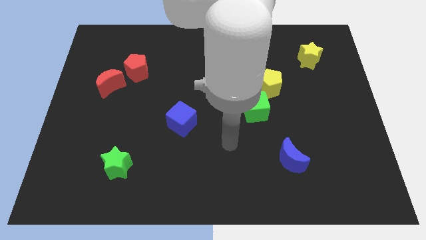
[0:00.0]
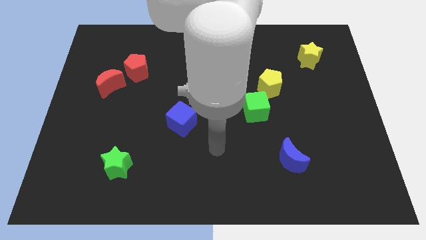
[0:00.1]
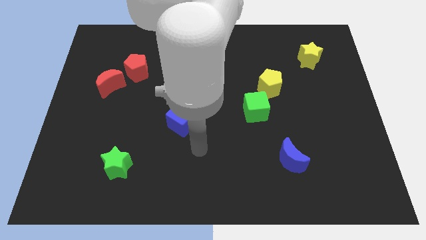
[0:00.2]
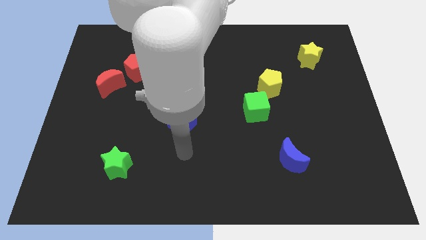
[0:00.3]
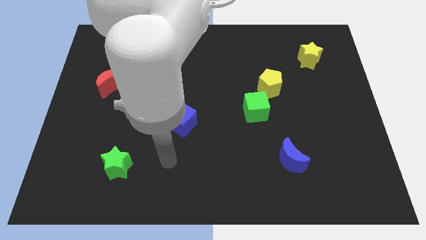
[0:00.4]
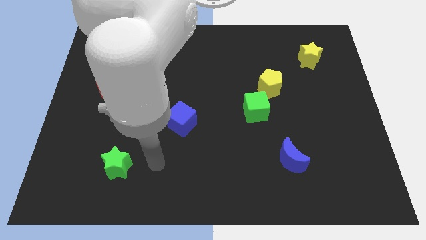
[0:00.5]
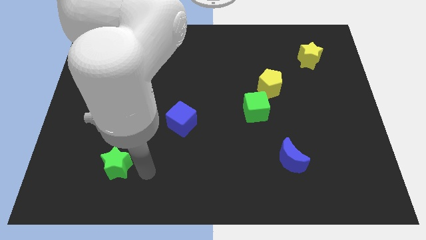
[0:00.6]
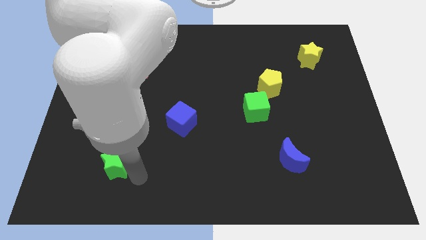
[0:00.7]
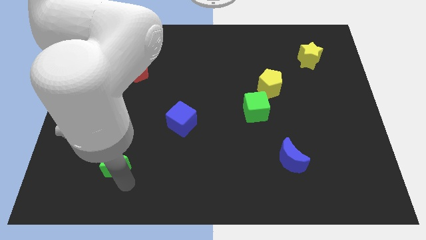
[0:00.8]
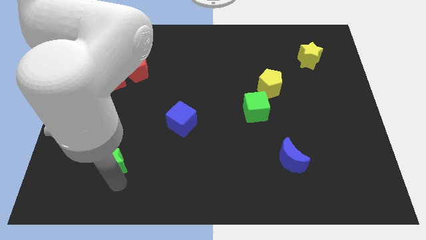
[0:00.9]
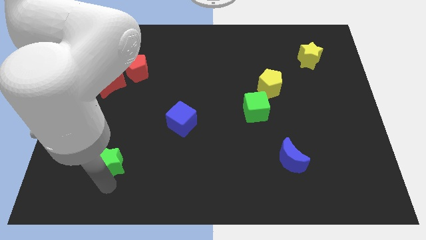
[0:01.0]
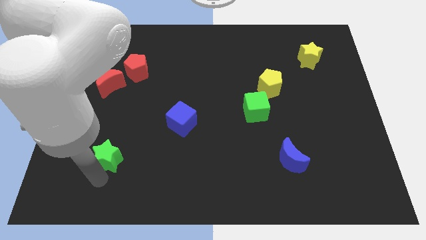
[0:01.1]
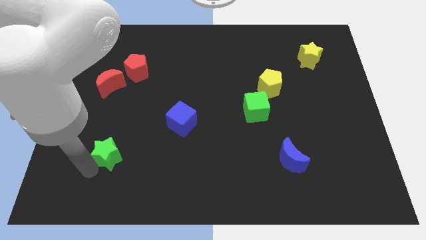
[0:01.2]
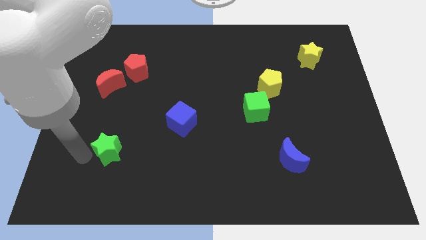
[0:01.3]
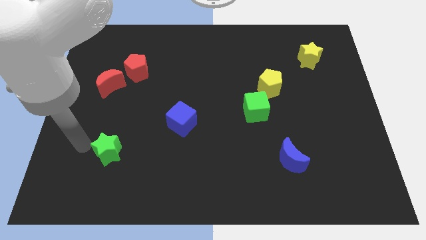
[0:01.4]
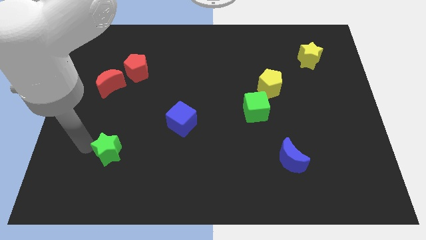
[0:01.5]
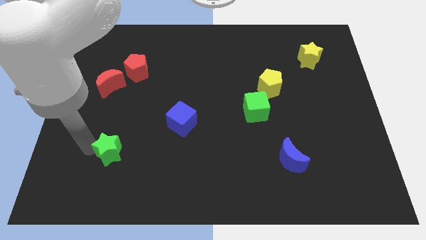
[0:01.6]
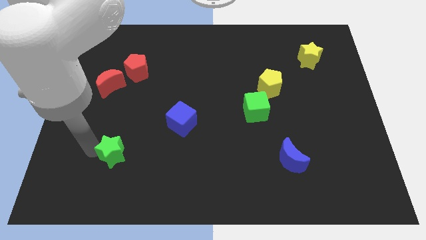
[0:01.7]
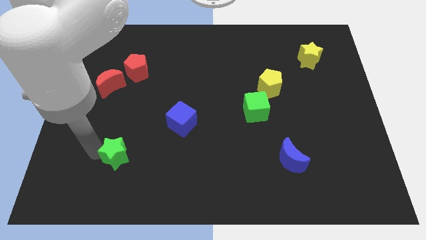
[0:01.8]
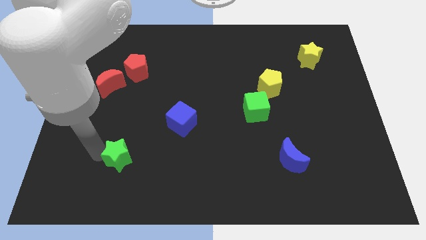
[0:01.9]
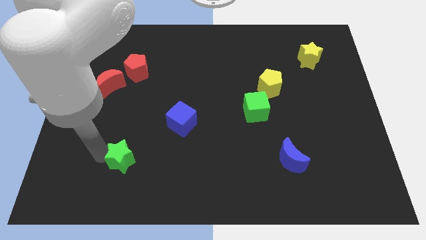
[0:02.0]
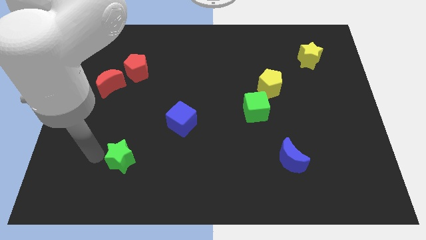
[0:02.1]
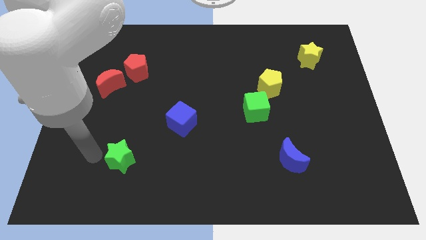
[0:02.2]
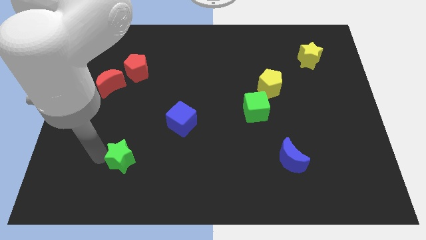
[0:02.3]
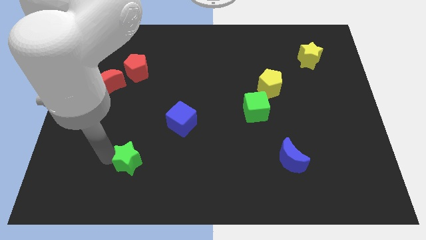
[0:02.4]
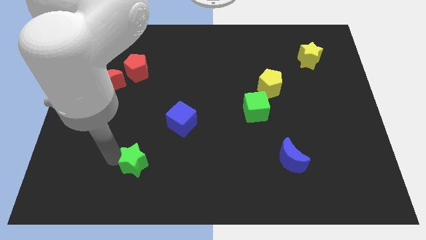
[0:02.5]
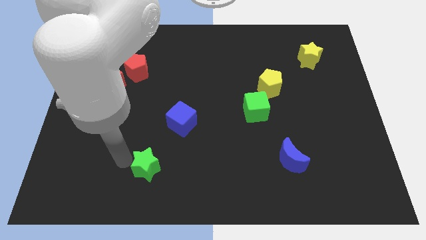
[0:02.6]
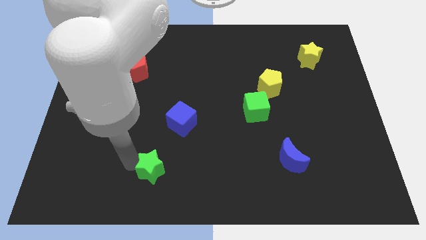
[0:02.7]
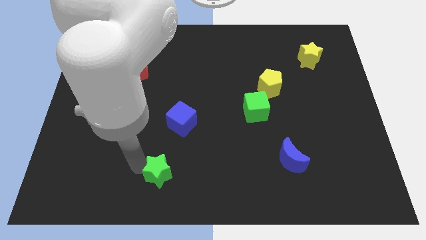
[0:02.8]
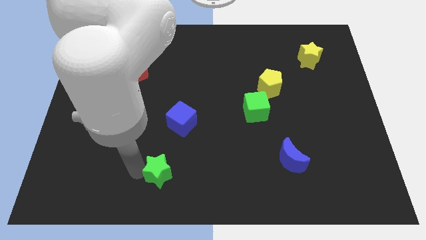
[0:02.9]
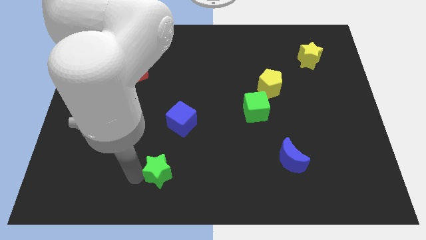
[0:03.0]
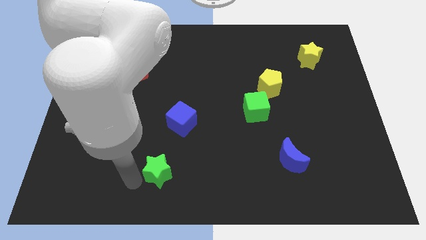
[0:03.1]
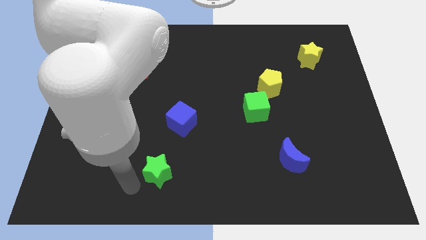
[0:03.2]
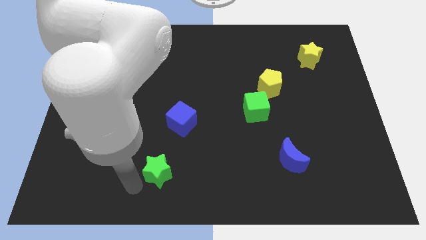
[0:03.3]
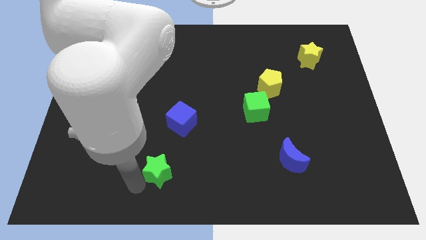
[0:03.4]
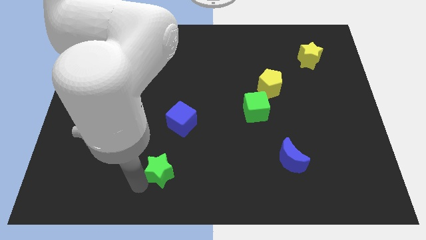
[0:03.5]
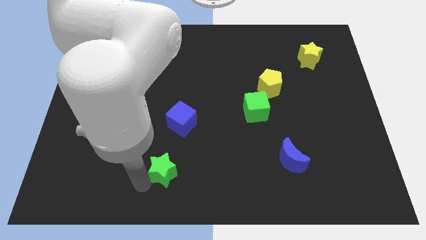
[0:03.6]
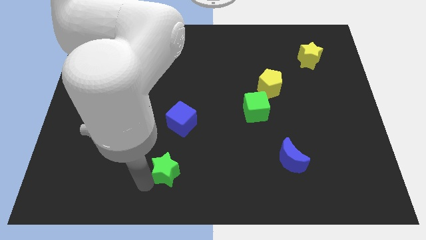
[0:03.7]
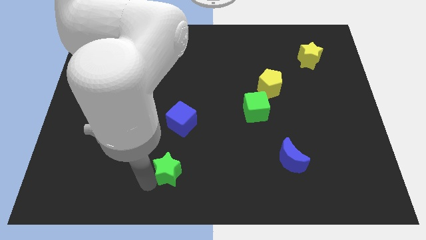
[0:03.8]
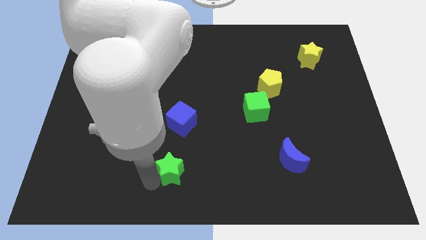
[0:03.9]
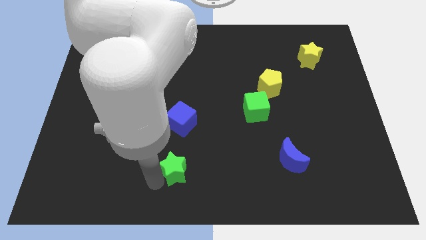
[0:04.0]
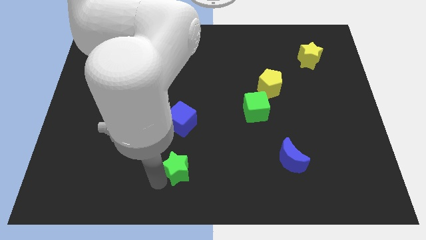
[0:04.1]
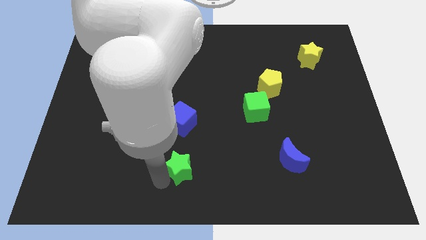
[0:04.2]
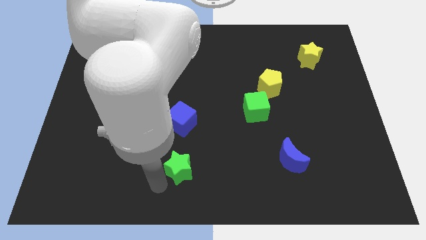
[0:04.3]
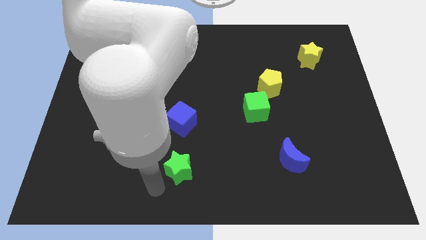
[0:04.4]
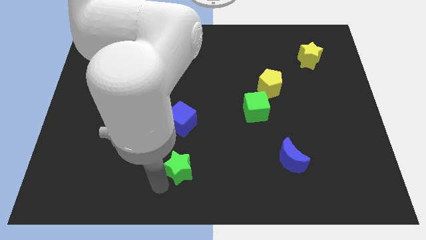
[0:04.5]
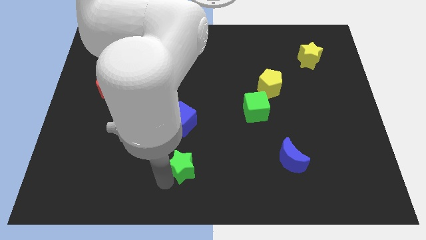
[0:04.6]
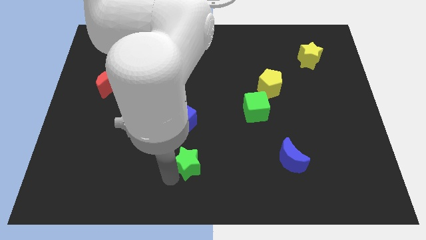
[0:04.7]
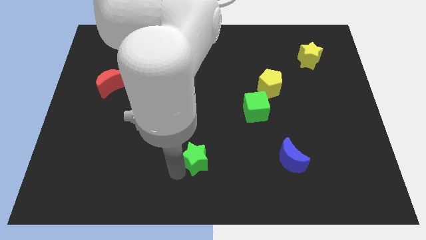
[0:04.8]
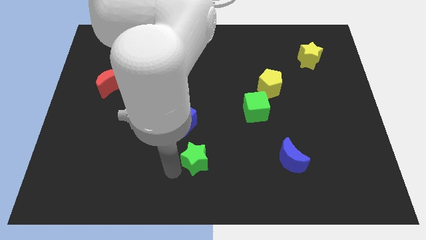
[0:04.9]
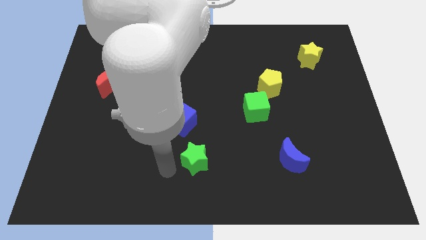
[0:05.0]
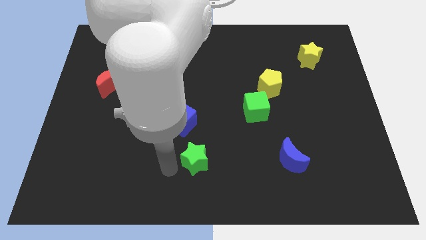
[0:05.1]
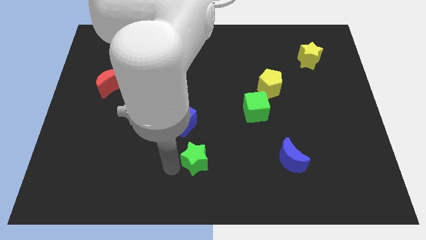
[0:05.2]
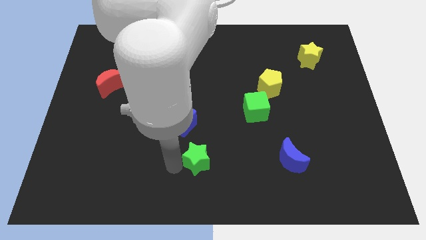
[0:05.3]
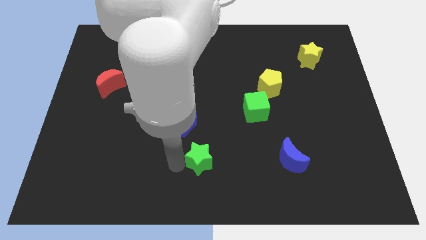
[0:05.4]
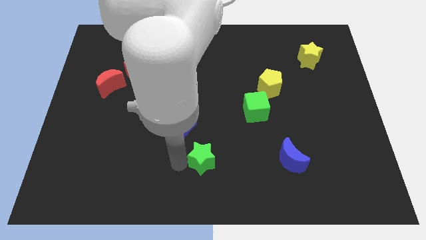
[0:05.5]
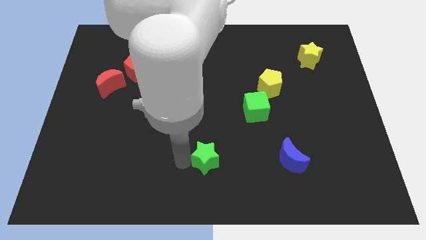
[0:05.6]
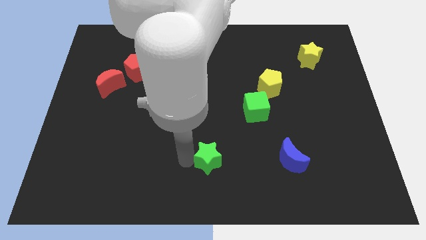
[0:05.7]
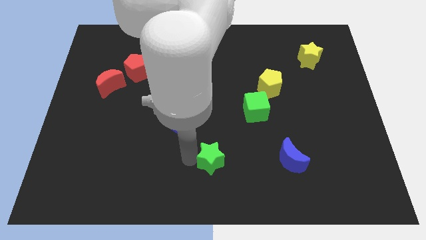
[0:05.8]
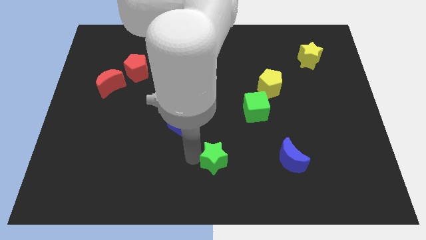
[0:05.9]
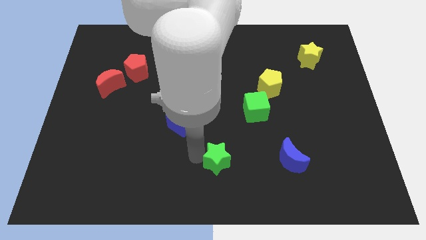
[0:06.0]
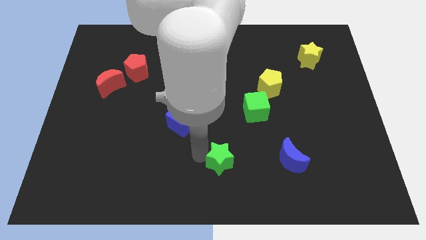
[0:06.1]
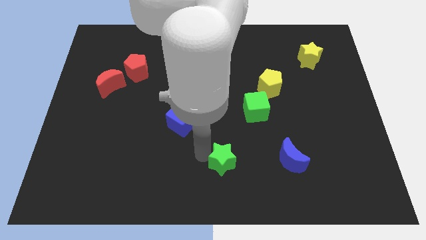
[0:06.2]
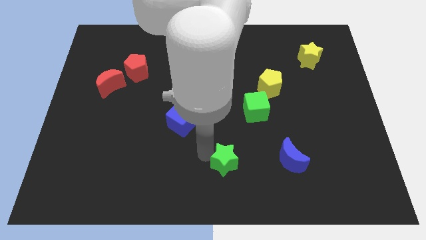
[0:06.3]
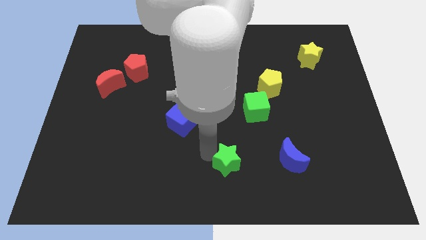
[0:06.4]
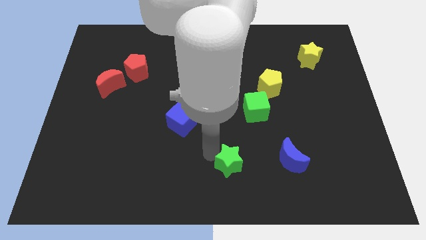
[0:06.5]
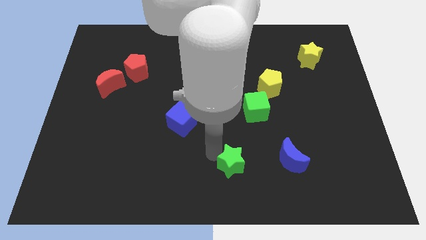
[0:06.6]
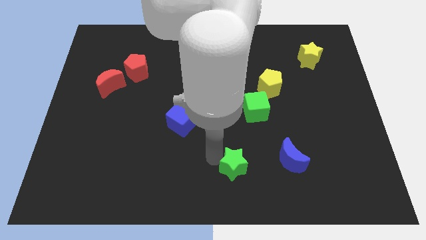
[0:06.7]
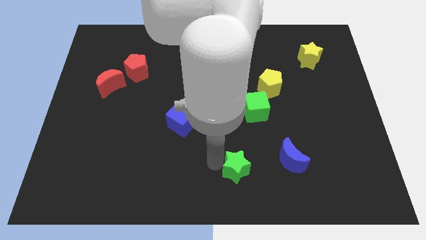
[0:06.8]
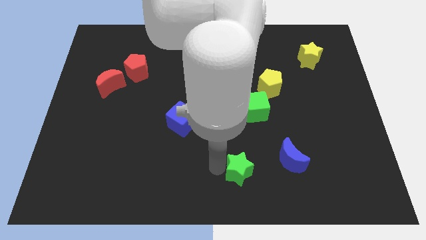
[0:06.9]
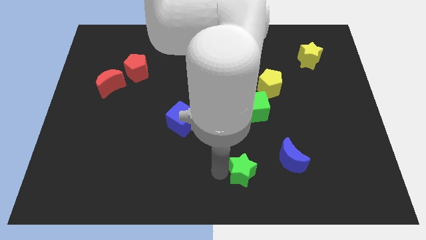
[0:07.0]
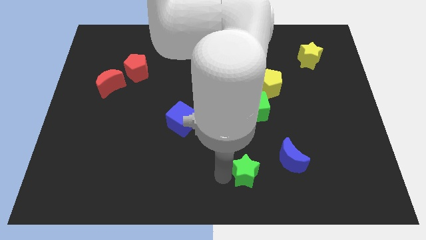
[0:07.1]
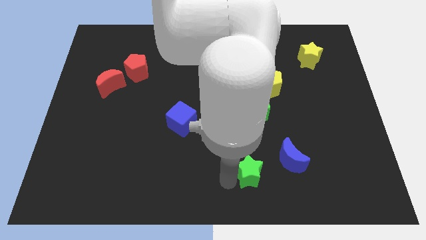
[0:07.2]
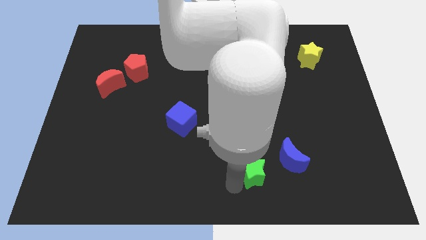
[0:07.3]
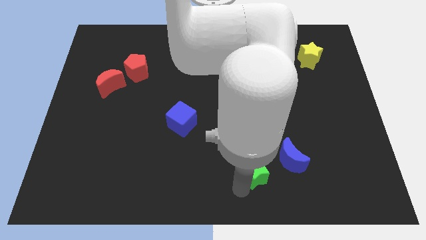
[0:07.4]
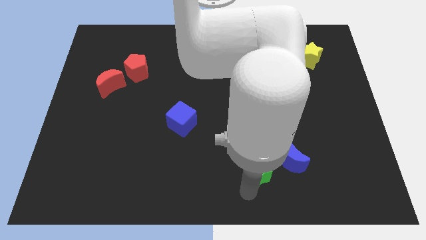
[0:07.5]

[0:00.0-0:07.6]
slide the green star below the green cube
